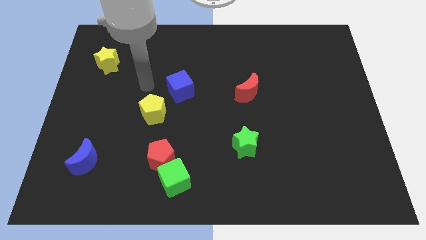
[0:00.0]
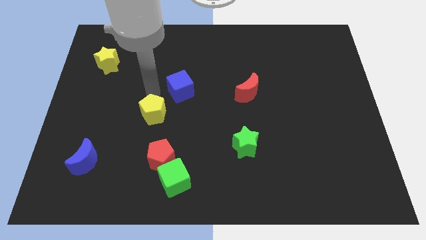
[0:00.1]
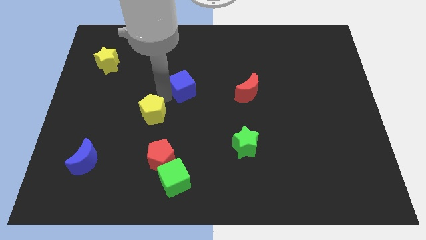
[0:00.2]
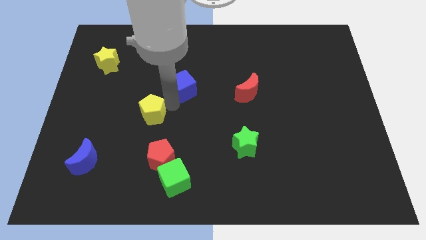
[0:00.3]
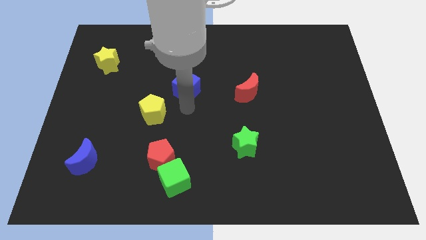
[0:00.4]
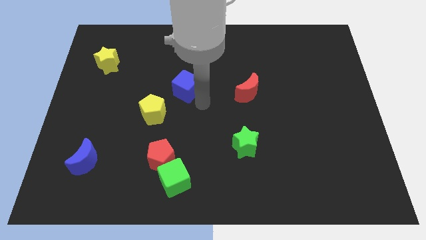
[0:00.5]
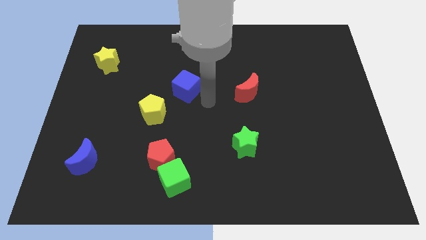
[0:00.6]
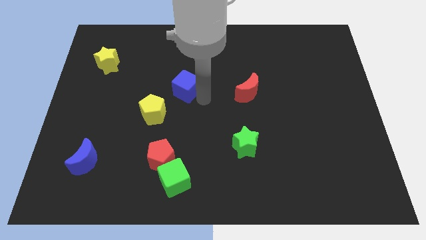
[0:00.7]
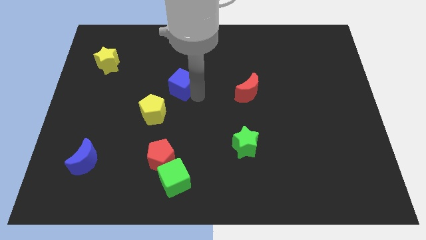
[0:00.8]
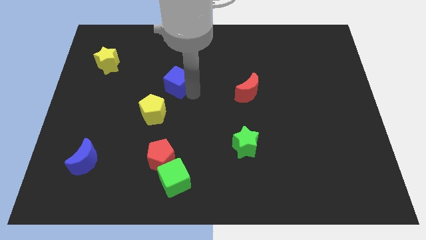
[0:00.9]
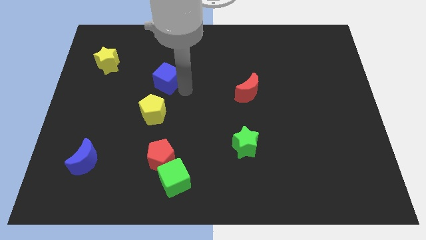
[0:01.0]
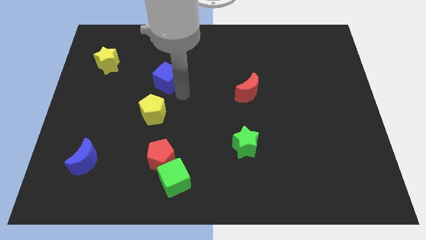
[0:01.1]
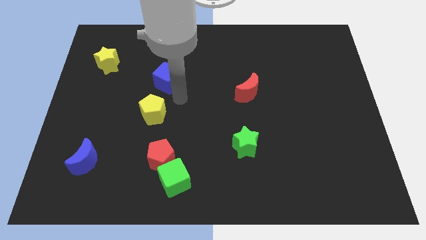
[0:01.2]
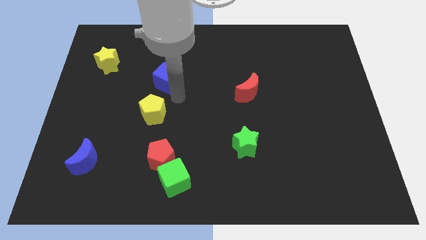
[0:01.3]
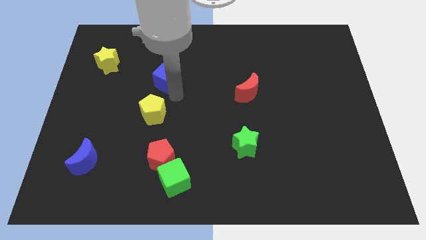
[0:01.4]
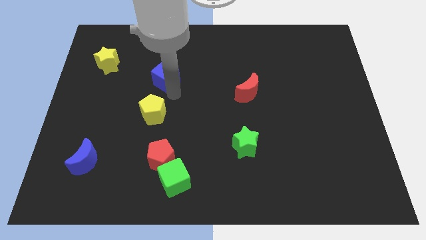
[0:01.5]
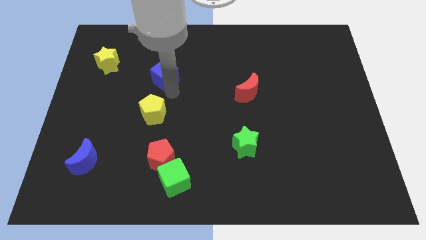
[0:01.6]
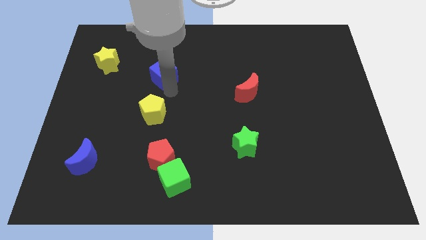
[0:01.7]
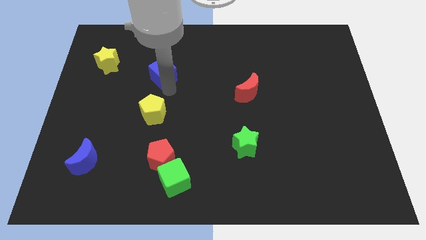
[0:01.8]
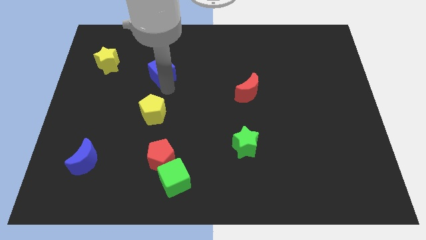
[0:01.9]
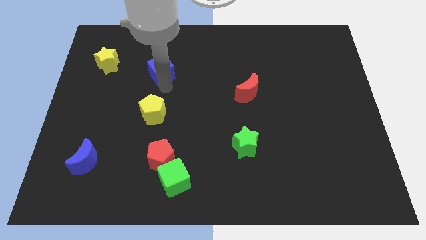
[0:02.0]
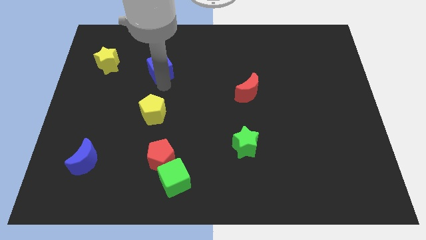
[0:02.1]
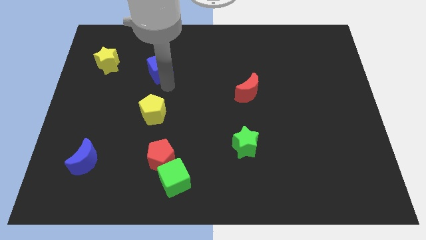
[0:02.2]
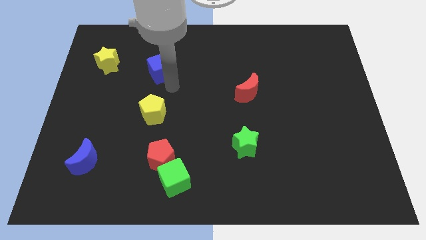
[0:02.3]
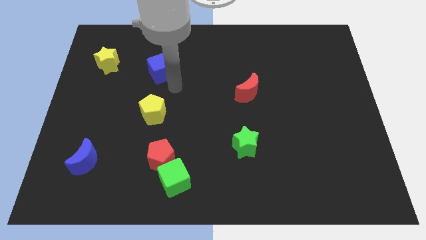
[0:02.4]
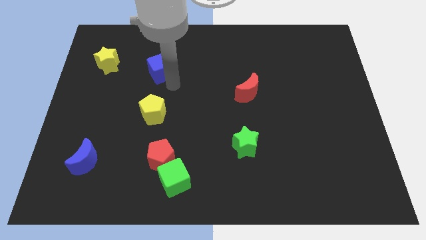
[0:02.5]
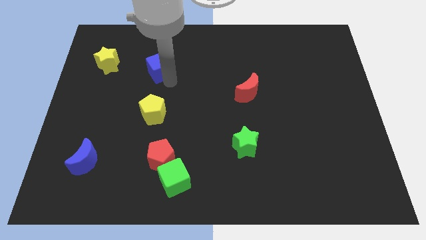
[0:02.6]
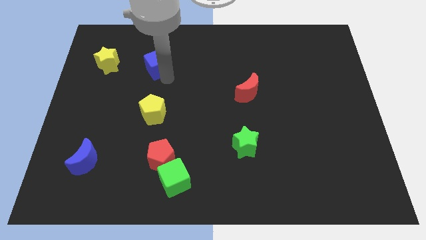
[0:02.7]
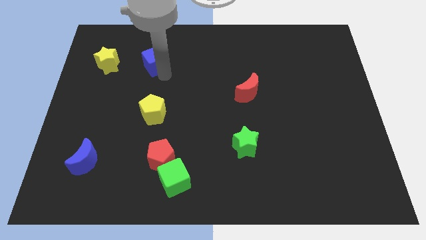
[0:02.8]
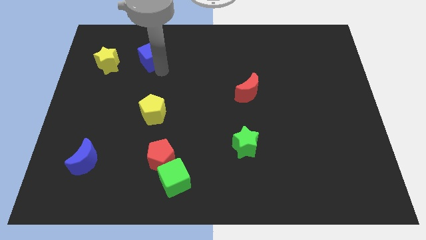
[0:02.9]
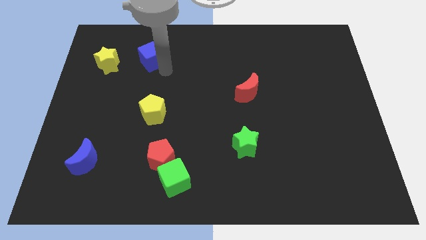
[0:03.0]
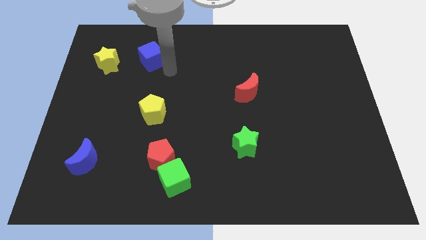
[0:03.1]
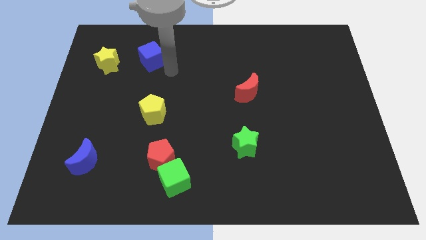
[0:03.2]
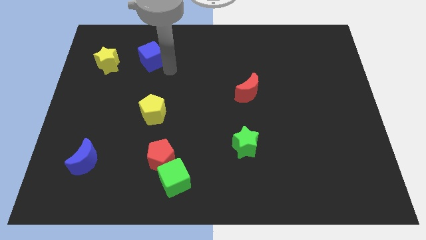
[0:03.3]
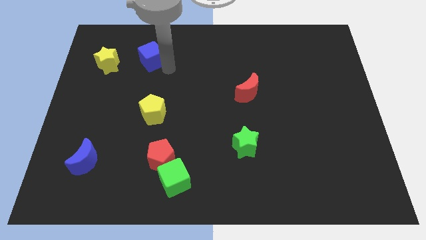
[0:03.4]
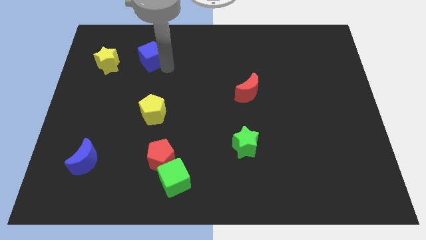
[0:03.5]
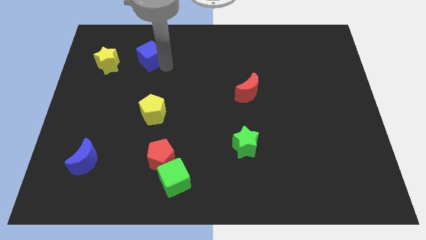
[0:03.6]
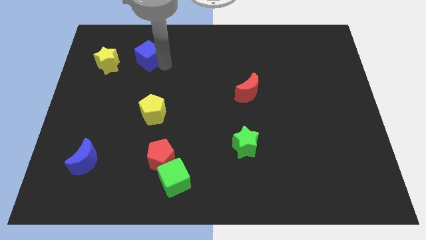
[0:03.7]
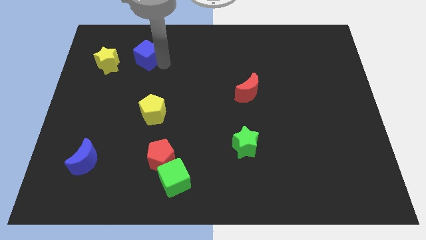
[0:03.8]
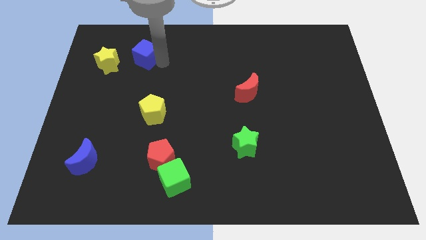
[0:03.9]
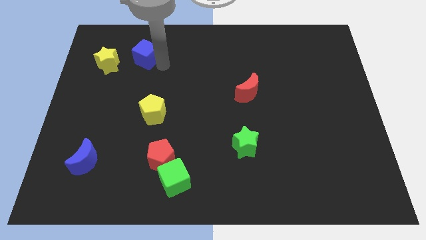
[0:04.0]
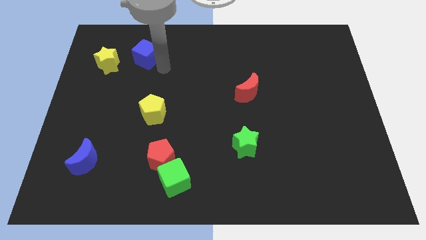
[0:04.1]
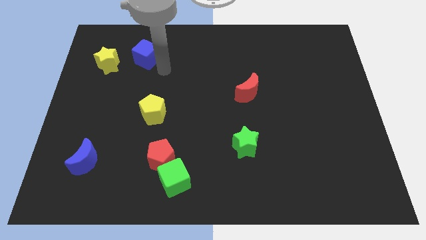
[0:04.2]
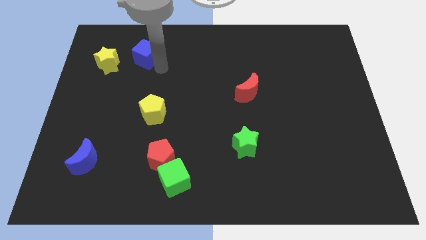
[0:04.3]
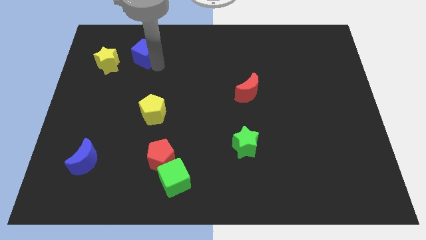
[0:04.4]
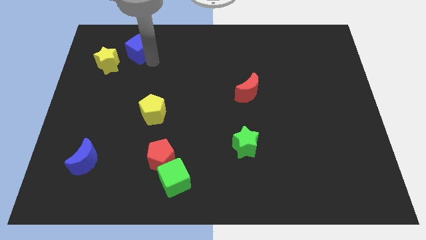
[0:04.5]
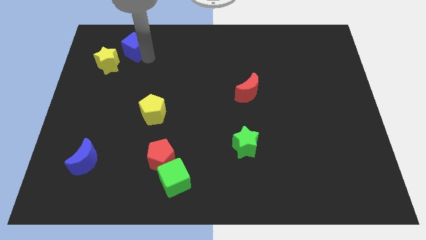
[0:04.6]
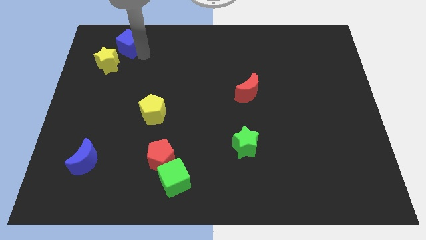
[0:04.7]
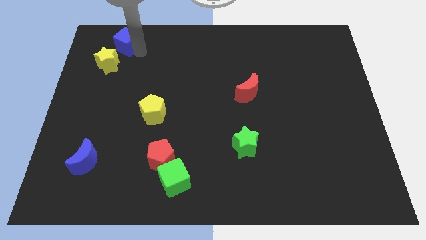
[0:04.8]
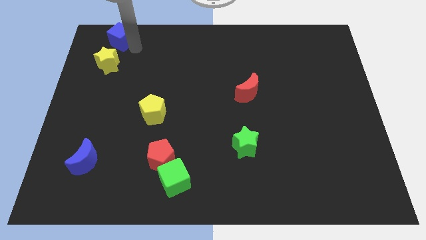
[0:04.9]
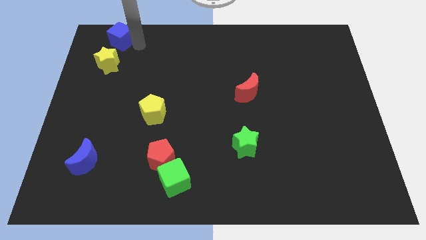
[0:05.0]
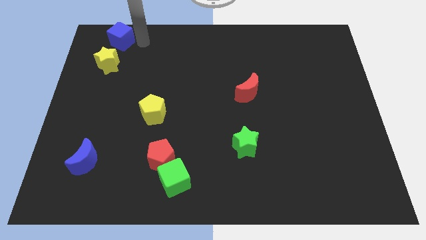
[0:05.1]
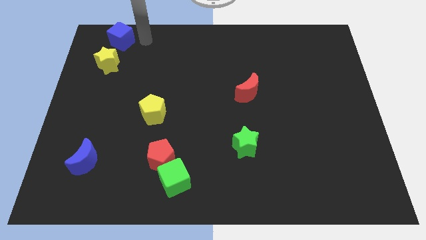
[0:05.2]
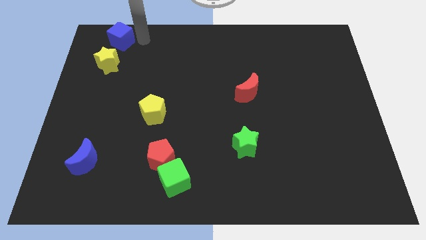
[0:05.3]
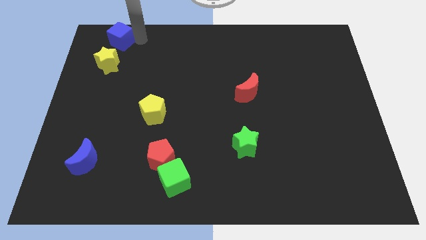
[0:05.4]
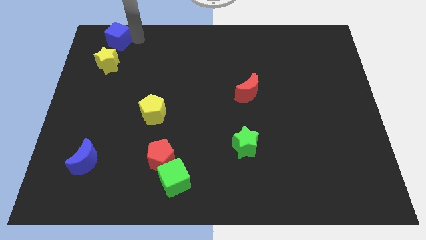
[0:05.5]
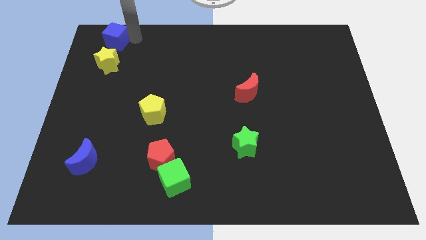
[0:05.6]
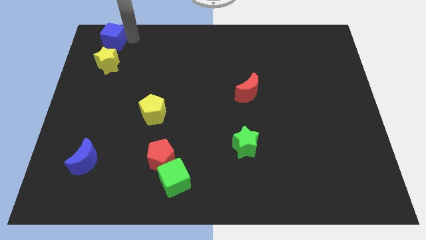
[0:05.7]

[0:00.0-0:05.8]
put the blue cube to the upper left corner

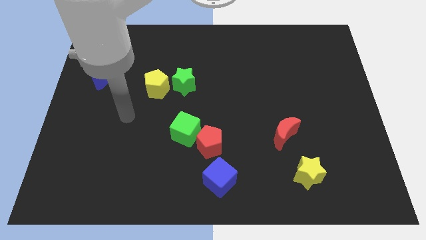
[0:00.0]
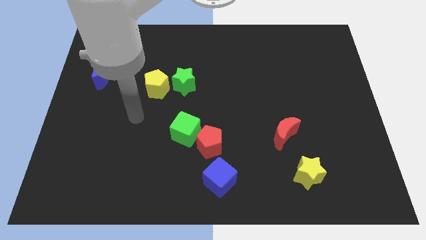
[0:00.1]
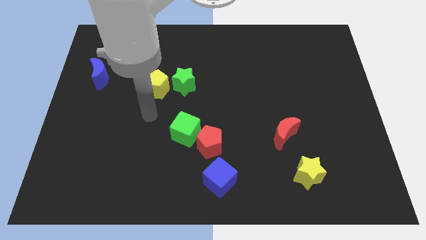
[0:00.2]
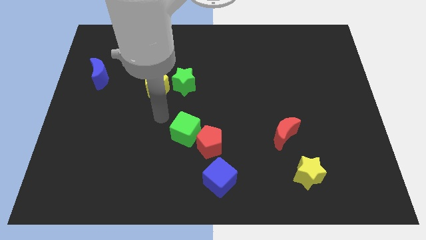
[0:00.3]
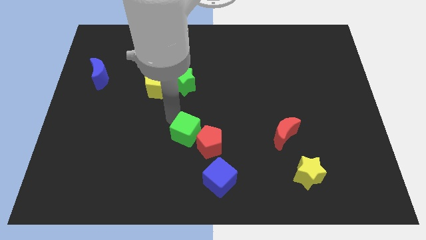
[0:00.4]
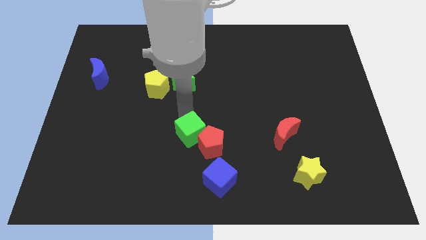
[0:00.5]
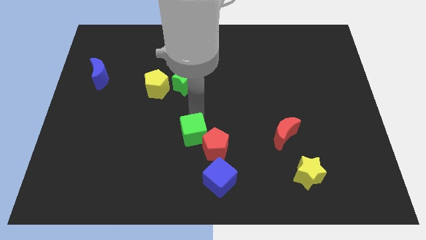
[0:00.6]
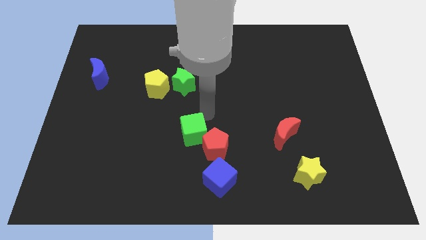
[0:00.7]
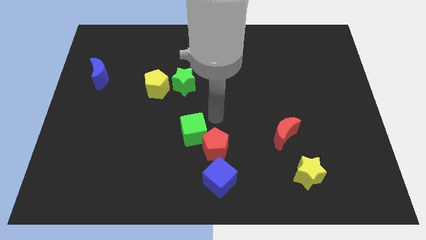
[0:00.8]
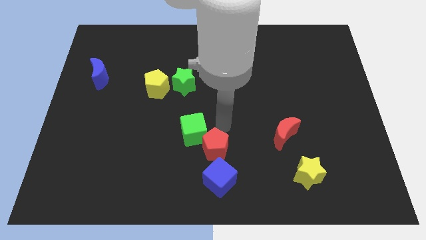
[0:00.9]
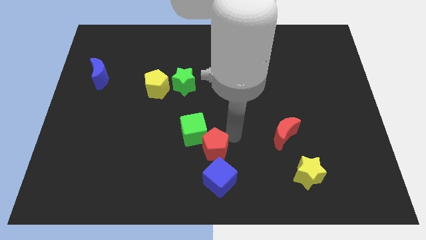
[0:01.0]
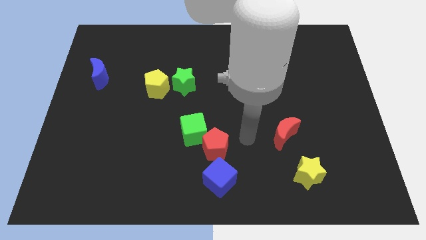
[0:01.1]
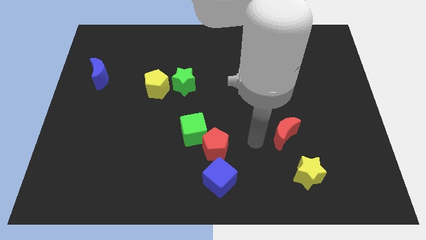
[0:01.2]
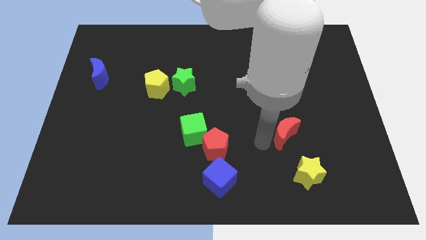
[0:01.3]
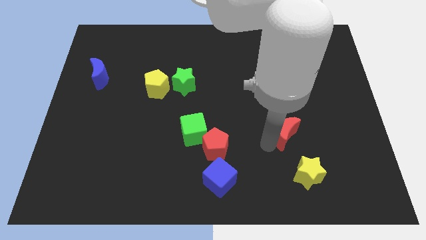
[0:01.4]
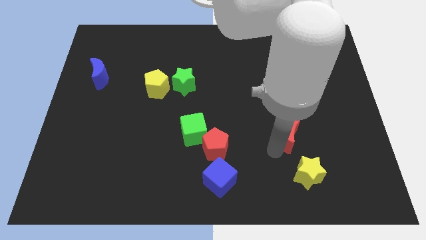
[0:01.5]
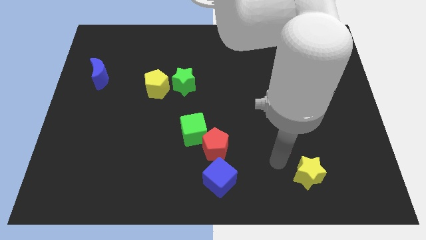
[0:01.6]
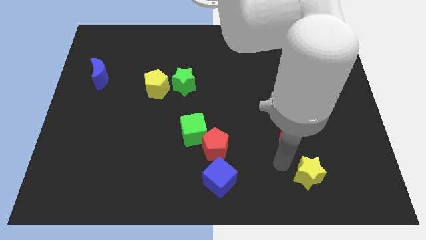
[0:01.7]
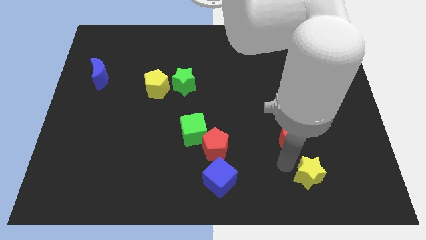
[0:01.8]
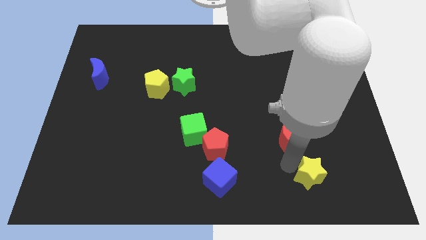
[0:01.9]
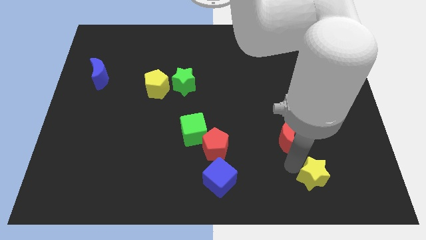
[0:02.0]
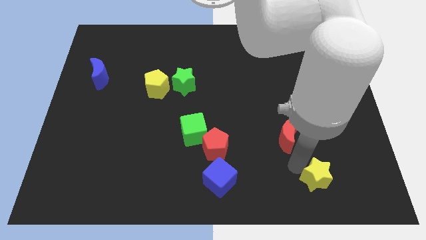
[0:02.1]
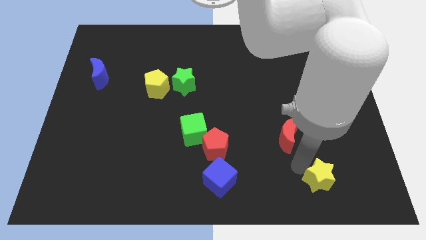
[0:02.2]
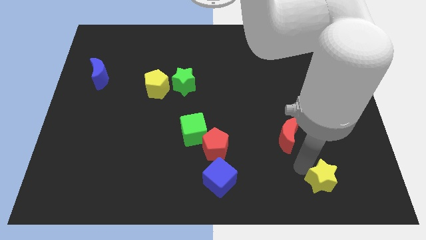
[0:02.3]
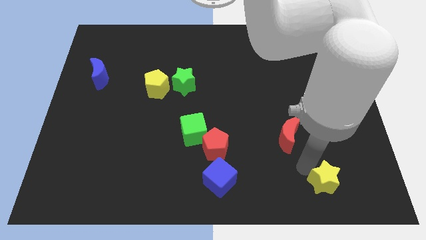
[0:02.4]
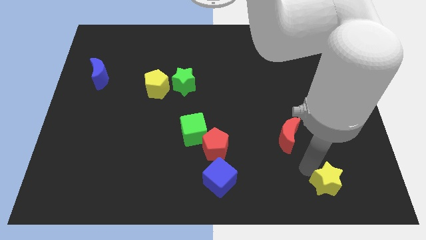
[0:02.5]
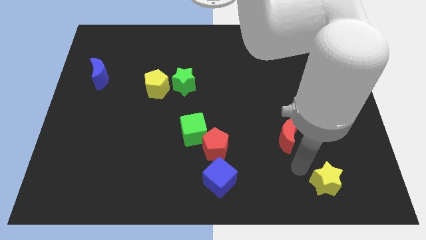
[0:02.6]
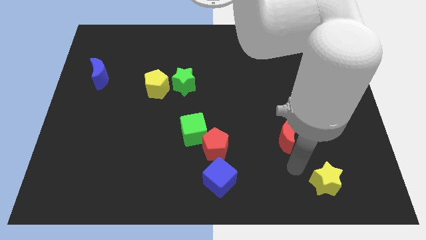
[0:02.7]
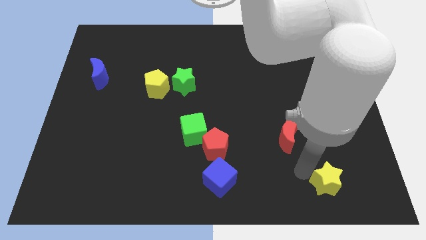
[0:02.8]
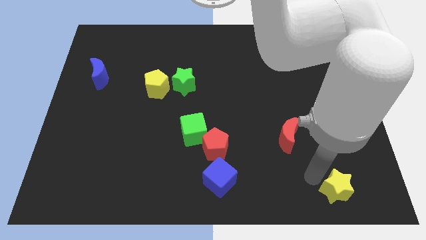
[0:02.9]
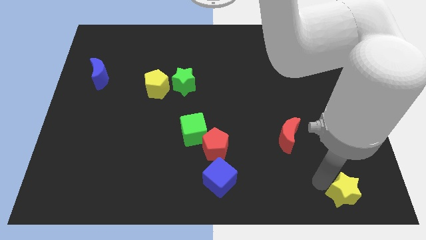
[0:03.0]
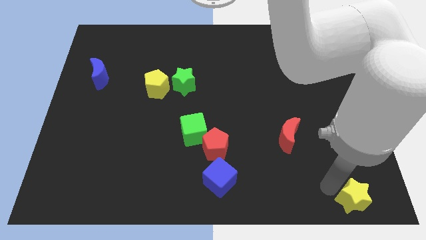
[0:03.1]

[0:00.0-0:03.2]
push the yellow star to the bottom right of the board
